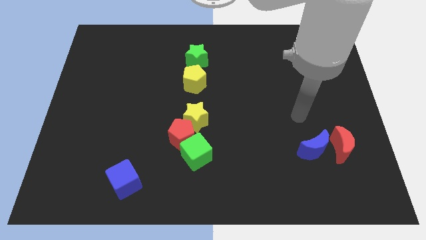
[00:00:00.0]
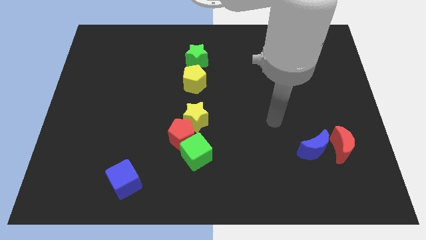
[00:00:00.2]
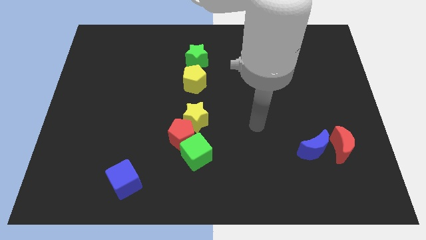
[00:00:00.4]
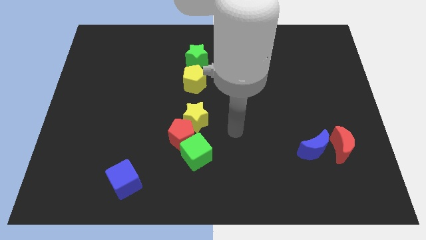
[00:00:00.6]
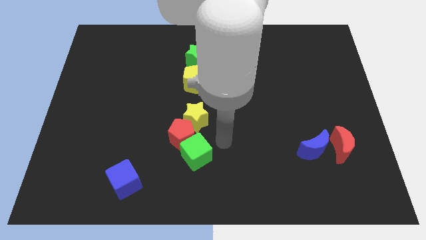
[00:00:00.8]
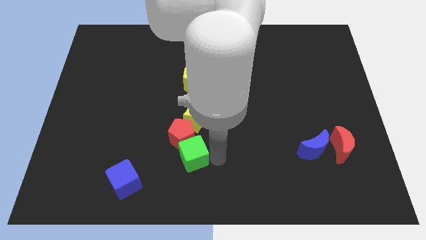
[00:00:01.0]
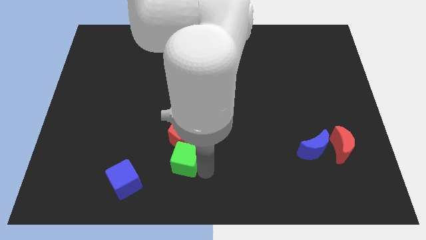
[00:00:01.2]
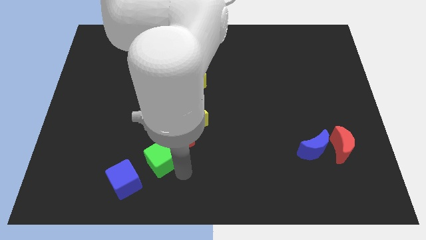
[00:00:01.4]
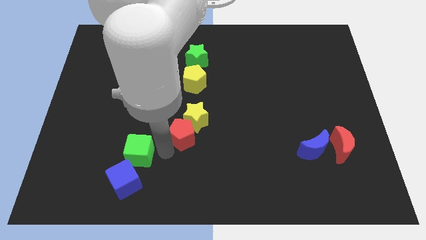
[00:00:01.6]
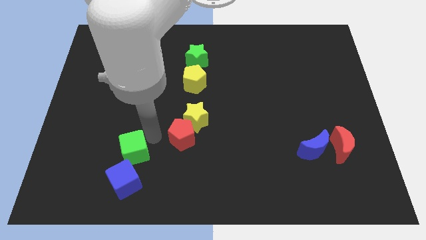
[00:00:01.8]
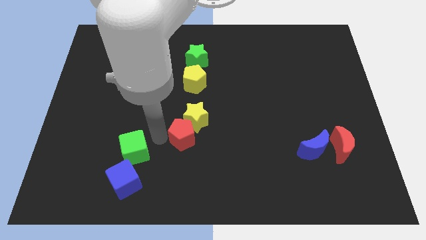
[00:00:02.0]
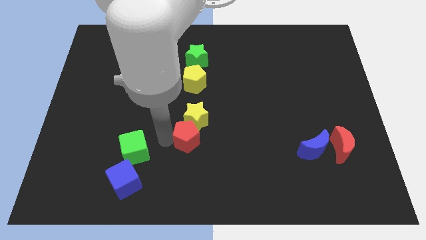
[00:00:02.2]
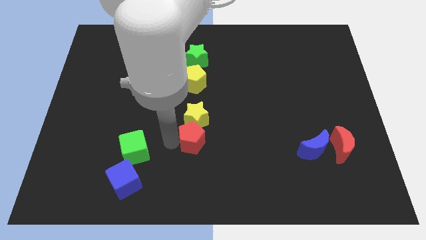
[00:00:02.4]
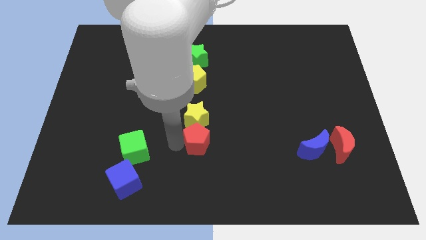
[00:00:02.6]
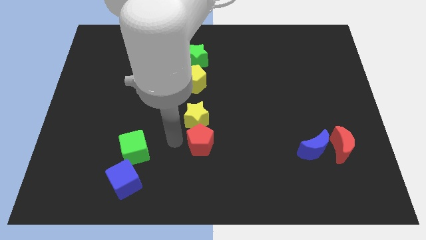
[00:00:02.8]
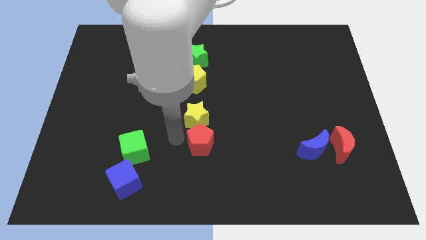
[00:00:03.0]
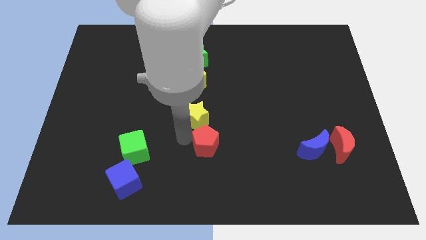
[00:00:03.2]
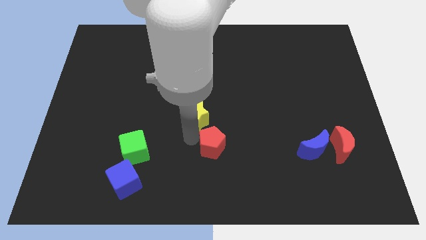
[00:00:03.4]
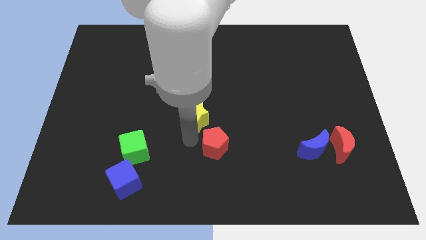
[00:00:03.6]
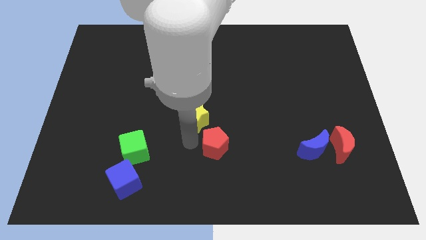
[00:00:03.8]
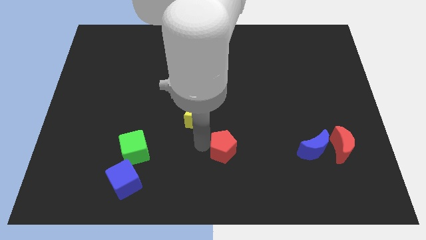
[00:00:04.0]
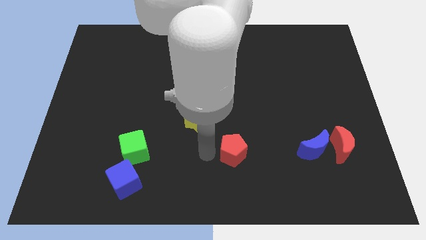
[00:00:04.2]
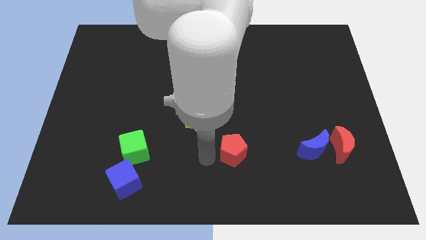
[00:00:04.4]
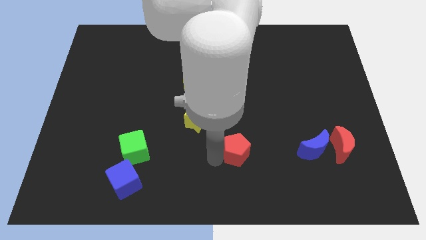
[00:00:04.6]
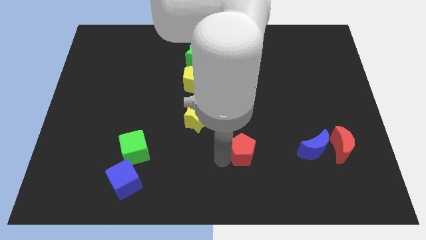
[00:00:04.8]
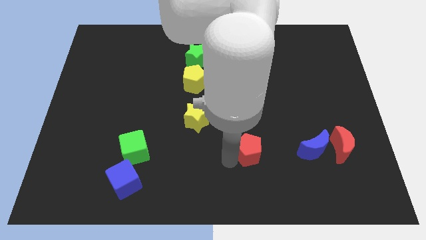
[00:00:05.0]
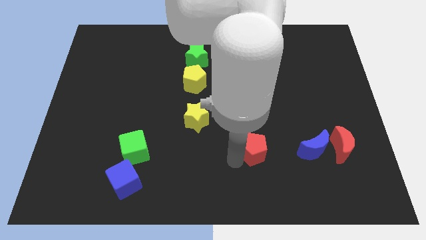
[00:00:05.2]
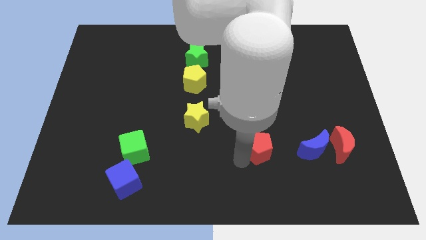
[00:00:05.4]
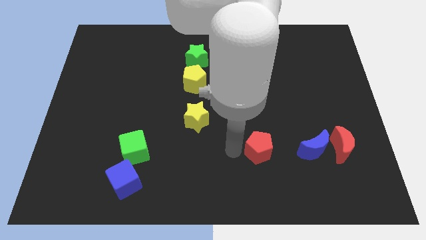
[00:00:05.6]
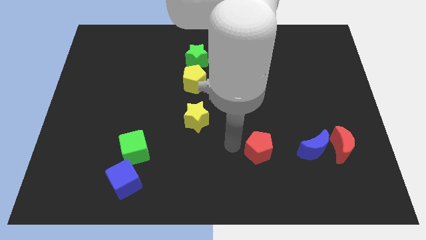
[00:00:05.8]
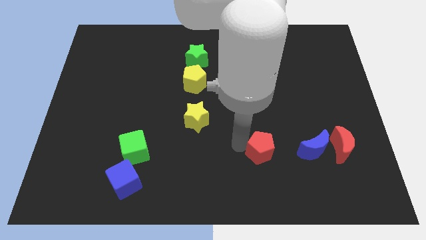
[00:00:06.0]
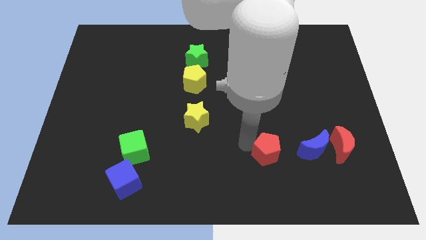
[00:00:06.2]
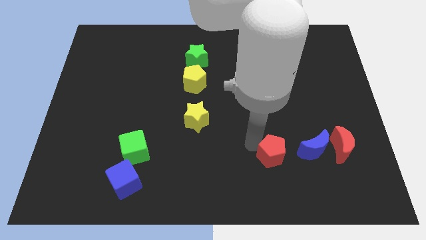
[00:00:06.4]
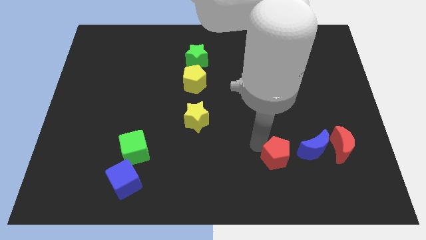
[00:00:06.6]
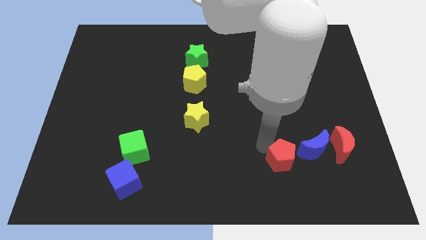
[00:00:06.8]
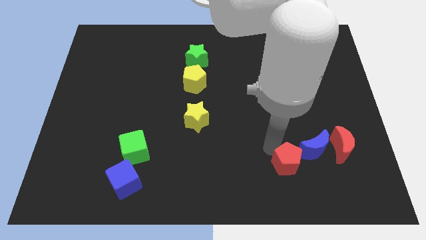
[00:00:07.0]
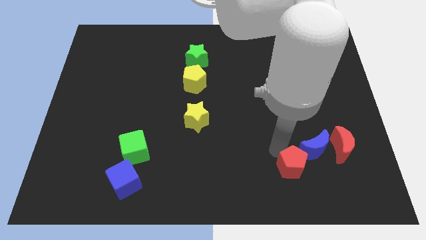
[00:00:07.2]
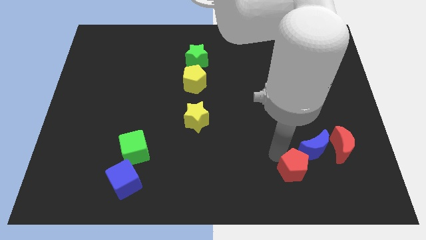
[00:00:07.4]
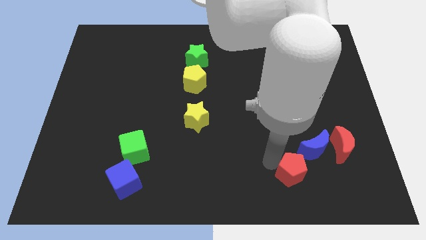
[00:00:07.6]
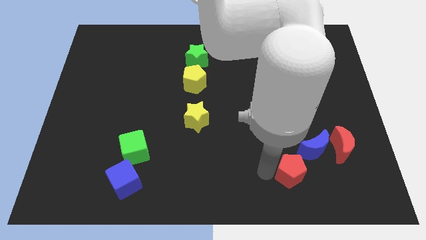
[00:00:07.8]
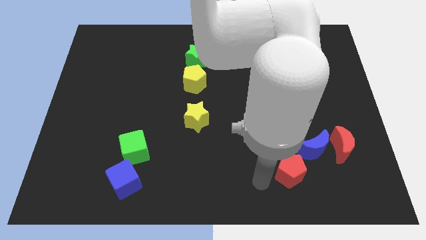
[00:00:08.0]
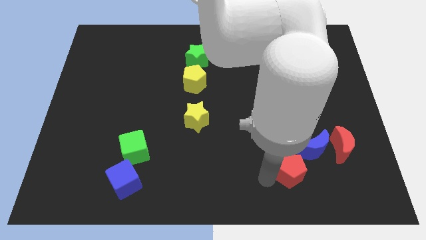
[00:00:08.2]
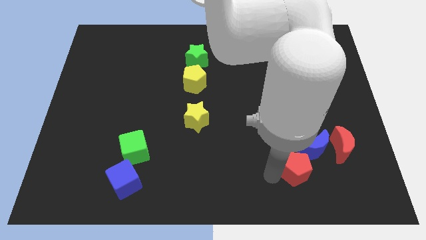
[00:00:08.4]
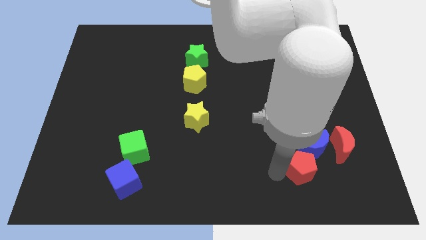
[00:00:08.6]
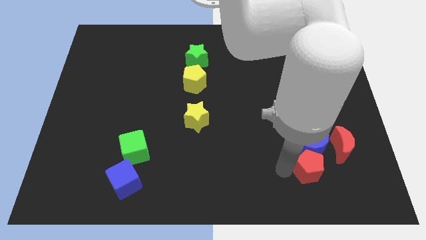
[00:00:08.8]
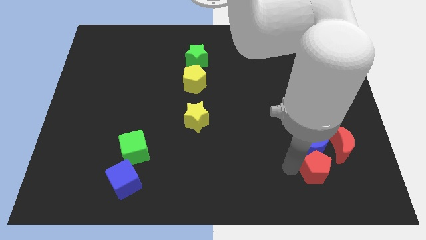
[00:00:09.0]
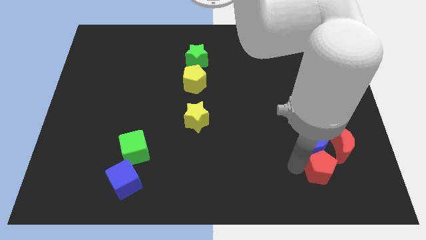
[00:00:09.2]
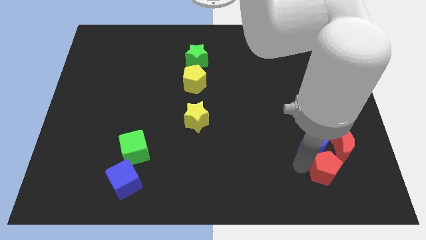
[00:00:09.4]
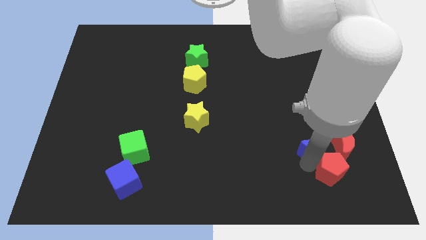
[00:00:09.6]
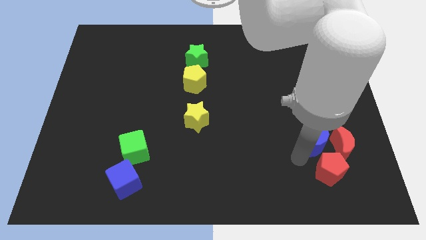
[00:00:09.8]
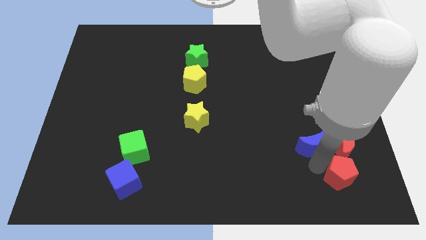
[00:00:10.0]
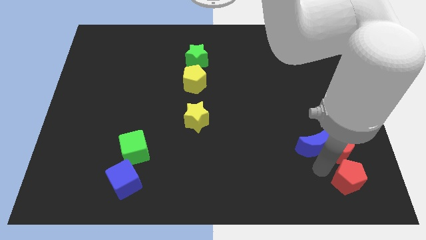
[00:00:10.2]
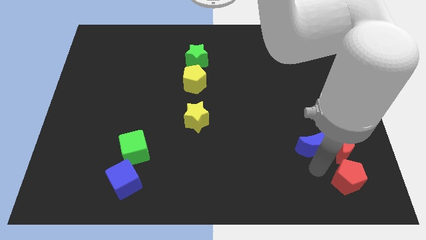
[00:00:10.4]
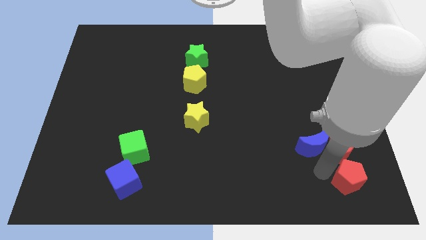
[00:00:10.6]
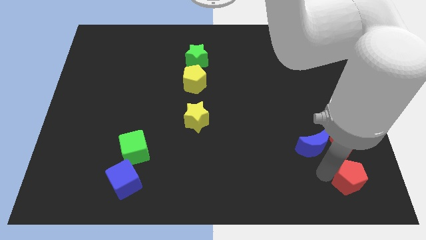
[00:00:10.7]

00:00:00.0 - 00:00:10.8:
push the red pentagon to the lower right corner

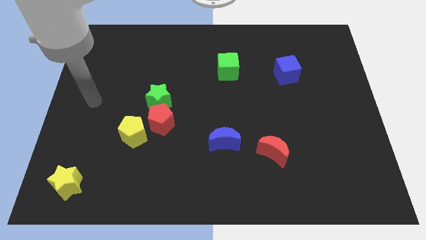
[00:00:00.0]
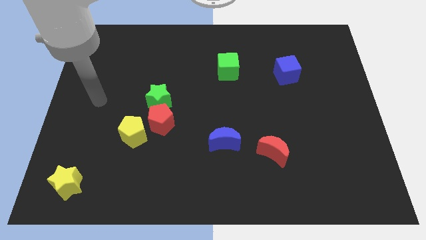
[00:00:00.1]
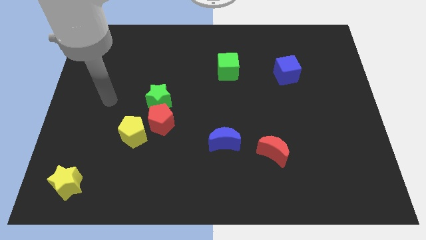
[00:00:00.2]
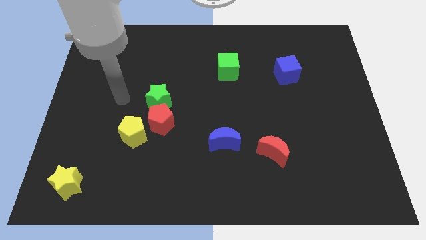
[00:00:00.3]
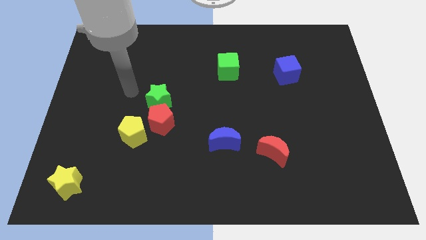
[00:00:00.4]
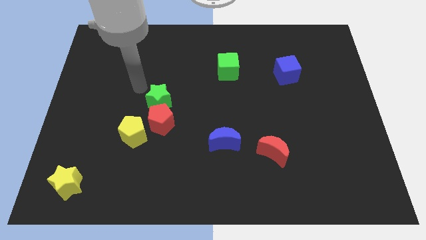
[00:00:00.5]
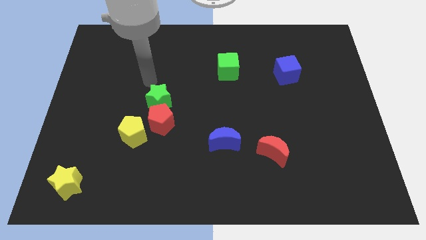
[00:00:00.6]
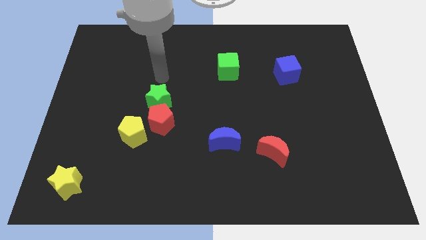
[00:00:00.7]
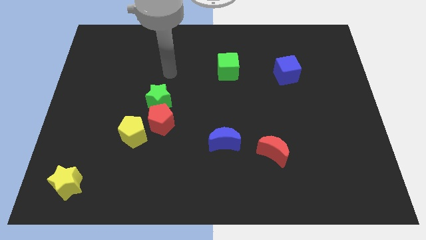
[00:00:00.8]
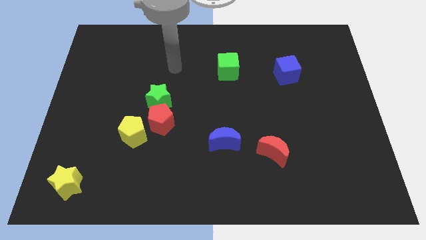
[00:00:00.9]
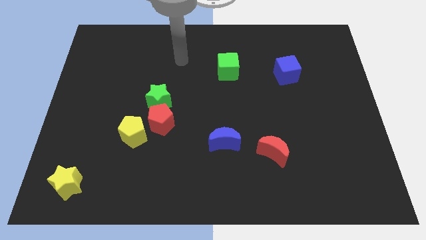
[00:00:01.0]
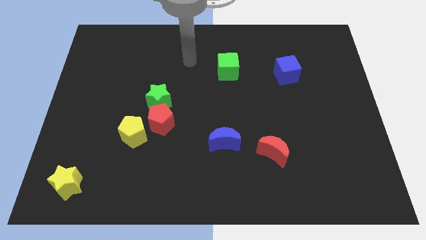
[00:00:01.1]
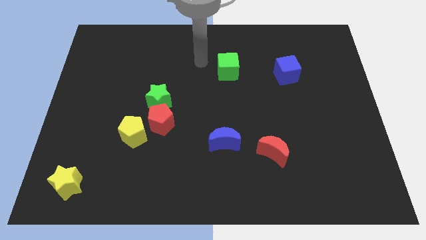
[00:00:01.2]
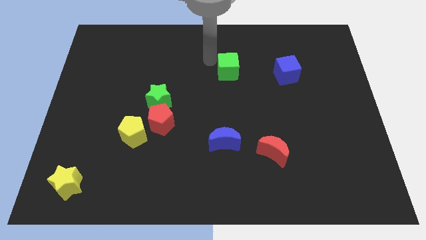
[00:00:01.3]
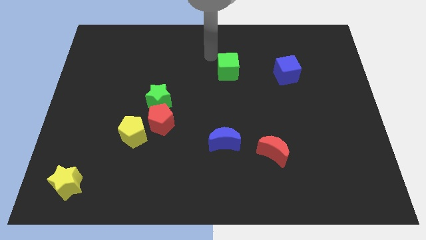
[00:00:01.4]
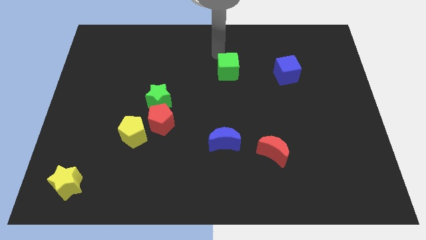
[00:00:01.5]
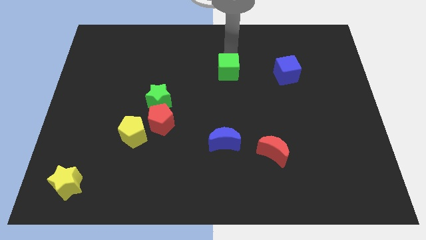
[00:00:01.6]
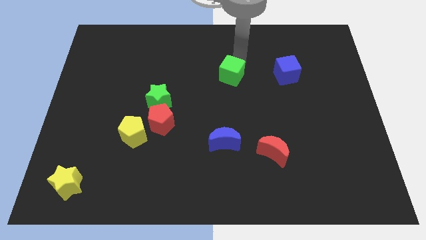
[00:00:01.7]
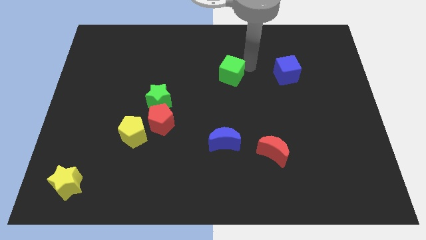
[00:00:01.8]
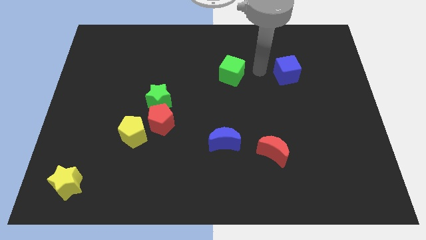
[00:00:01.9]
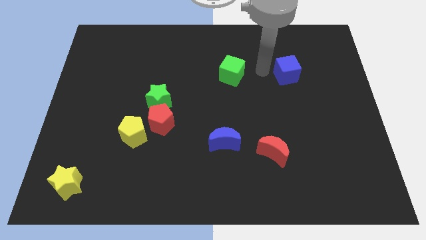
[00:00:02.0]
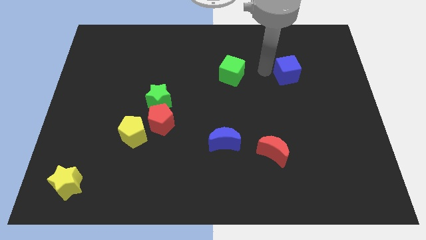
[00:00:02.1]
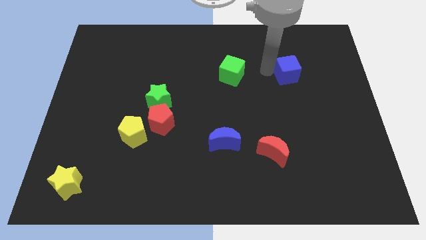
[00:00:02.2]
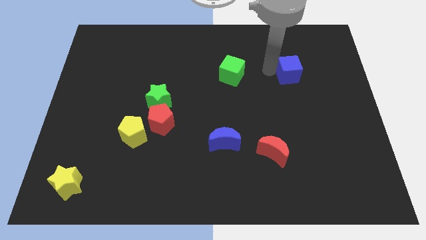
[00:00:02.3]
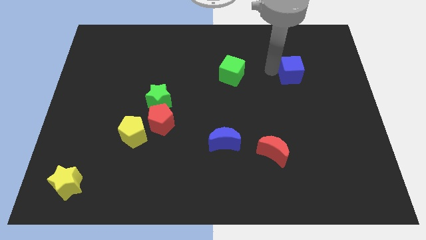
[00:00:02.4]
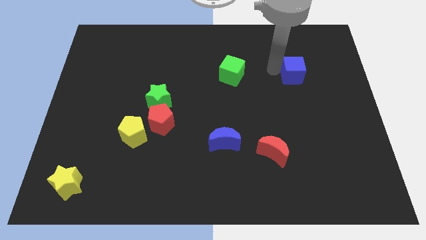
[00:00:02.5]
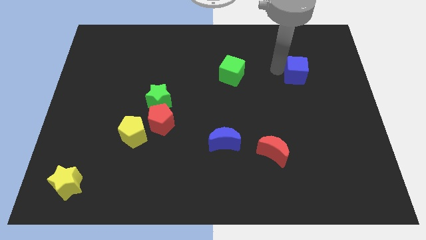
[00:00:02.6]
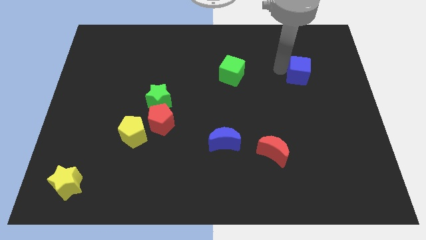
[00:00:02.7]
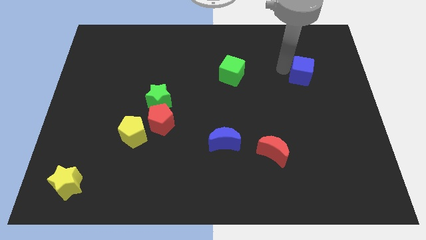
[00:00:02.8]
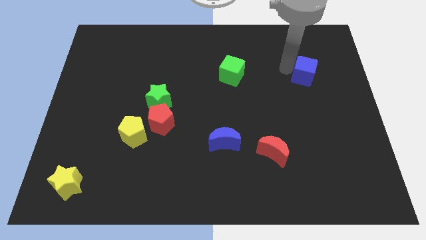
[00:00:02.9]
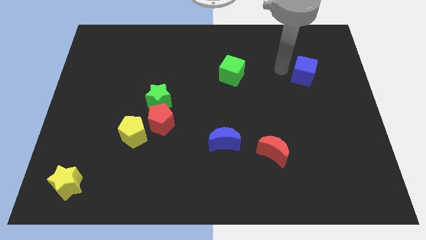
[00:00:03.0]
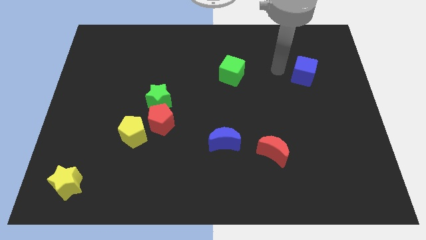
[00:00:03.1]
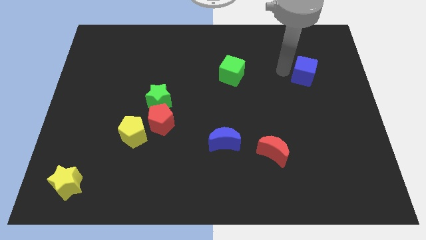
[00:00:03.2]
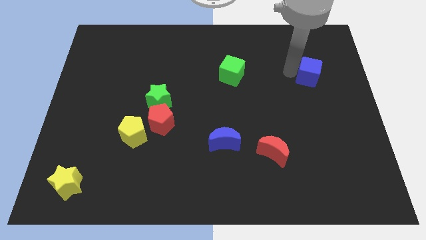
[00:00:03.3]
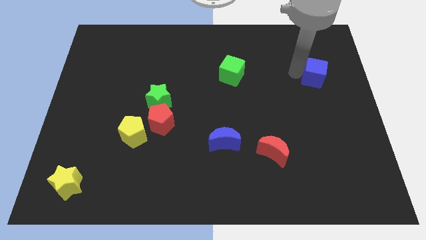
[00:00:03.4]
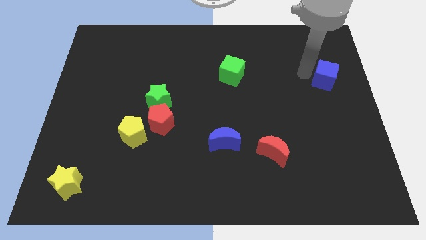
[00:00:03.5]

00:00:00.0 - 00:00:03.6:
put the blue cube to the right side
